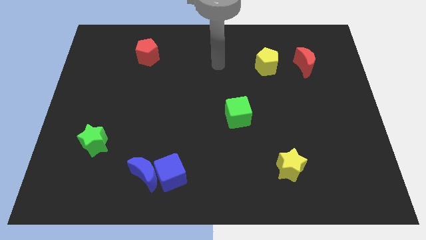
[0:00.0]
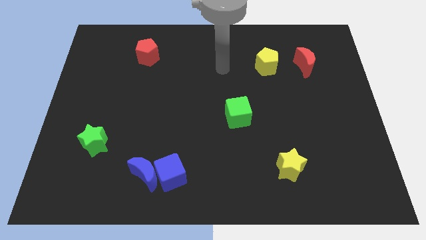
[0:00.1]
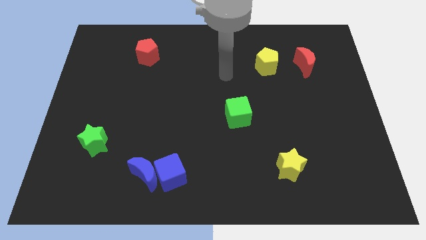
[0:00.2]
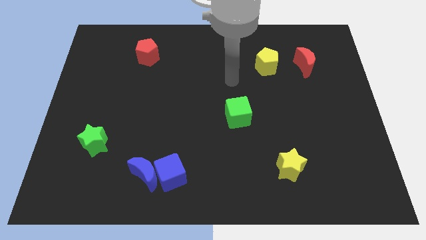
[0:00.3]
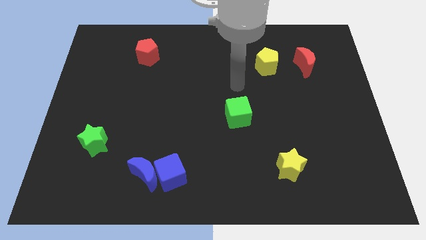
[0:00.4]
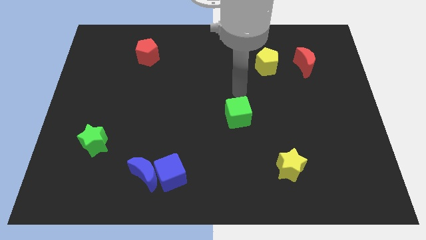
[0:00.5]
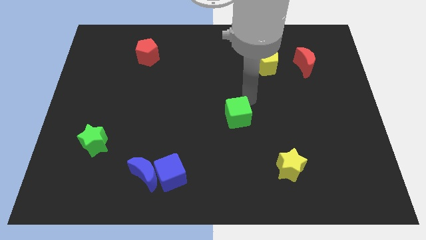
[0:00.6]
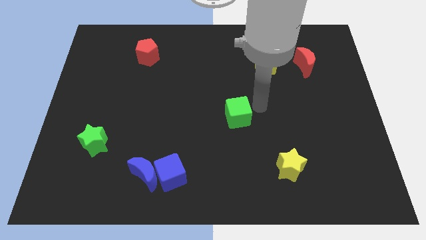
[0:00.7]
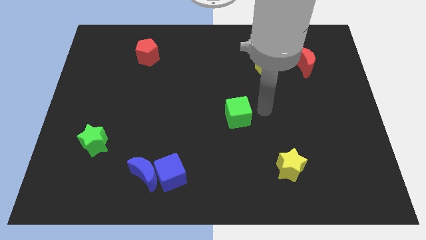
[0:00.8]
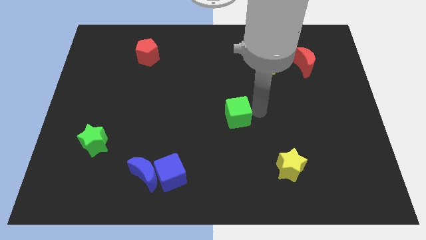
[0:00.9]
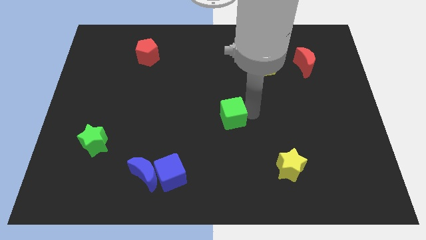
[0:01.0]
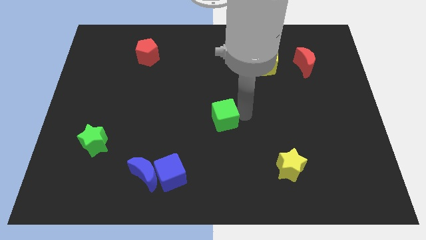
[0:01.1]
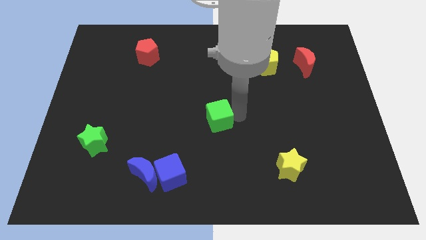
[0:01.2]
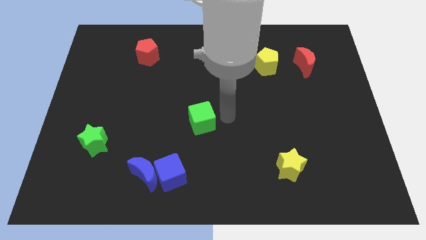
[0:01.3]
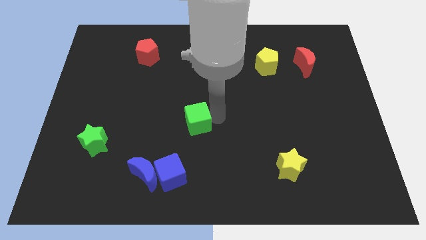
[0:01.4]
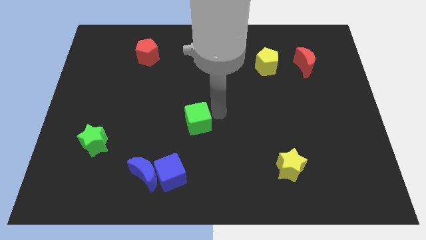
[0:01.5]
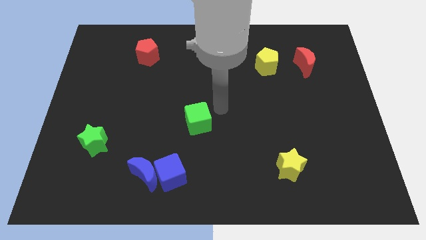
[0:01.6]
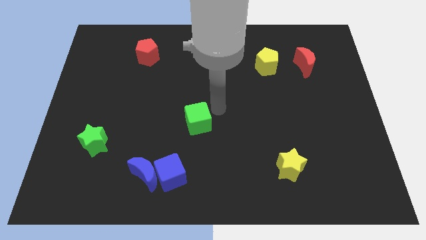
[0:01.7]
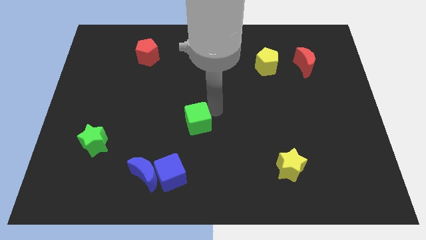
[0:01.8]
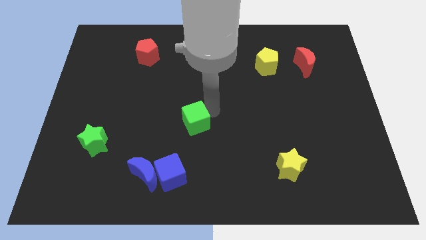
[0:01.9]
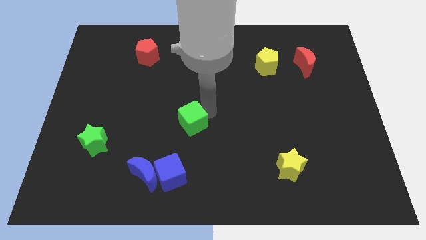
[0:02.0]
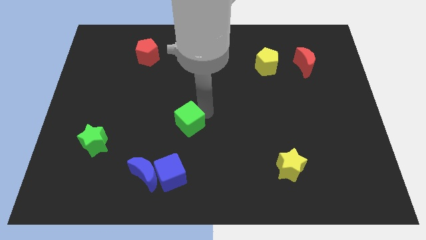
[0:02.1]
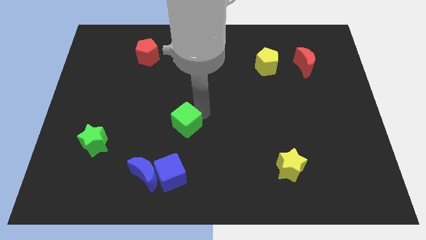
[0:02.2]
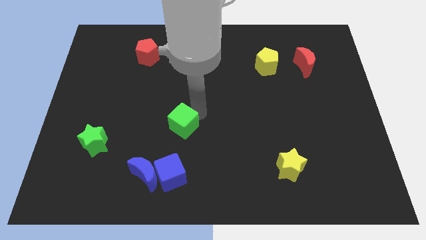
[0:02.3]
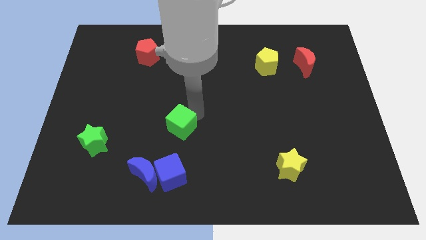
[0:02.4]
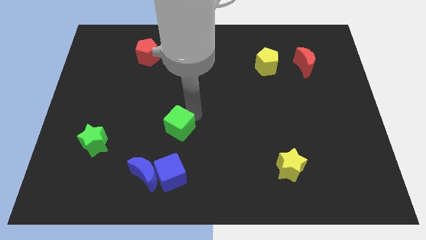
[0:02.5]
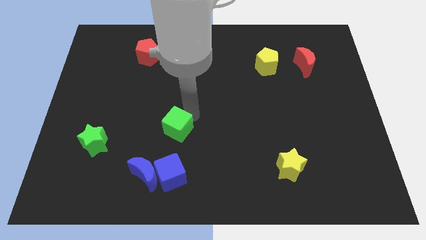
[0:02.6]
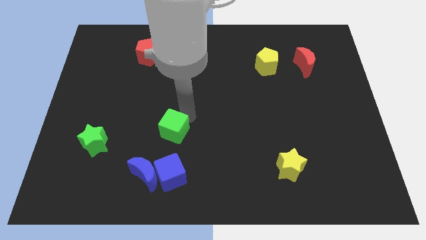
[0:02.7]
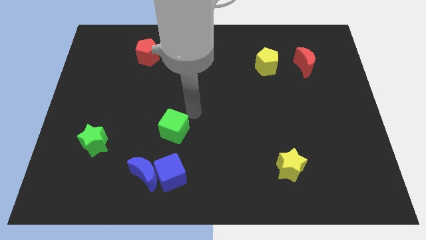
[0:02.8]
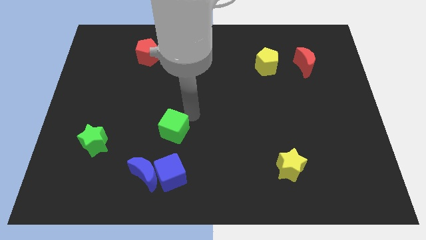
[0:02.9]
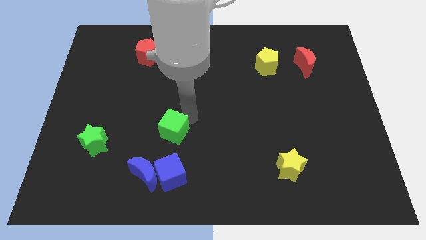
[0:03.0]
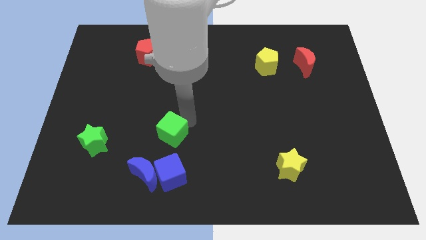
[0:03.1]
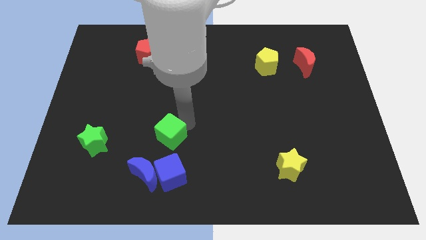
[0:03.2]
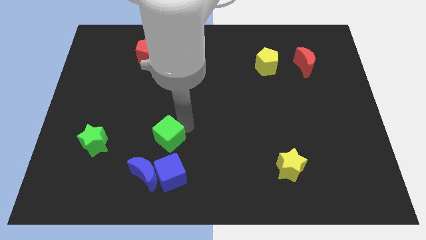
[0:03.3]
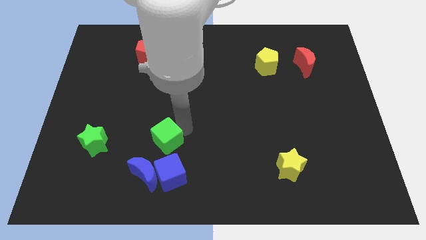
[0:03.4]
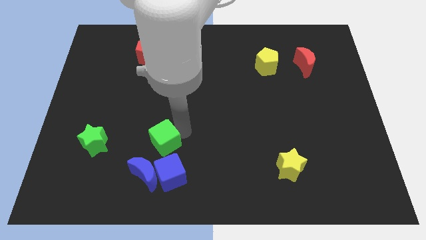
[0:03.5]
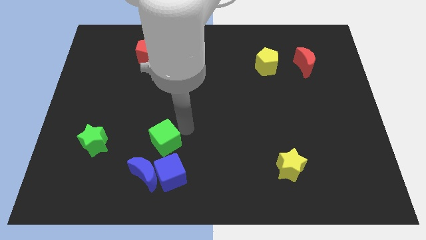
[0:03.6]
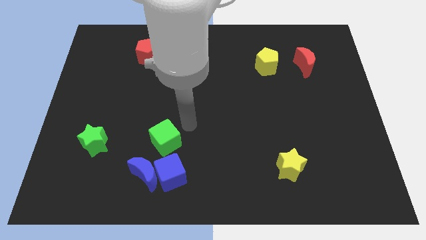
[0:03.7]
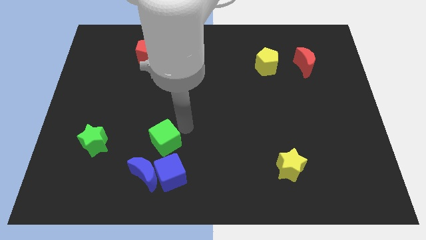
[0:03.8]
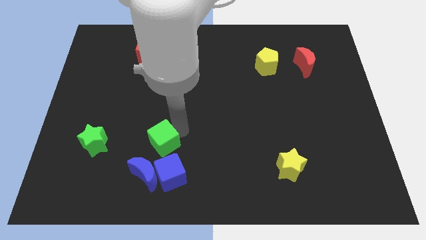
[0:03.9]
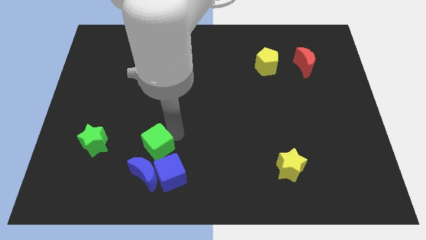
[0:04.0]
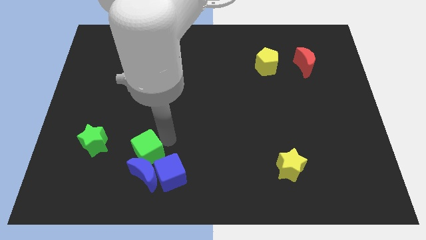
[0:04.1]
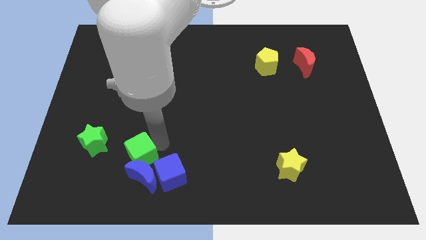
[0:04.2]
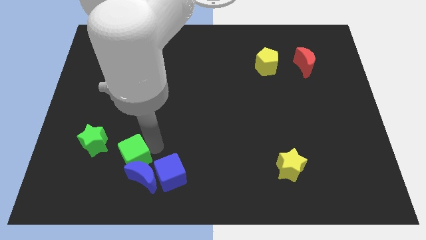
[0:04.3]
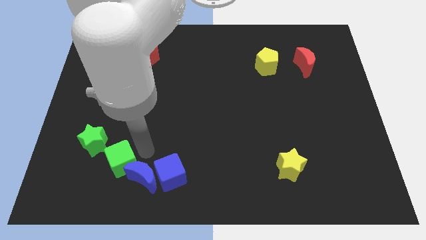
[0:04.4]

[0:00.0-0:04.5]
put the green cube left of the blue moon

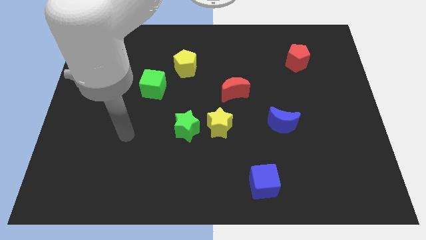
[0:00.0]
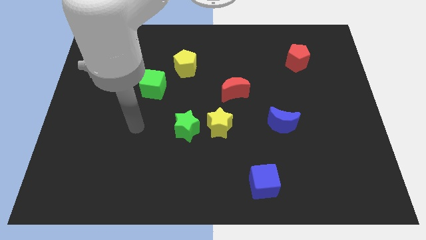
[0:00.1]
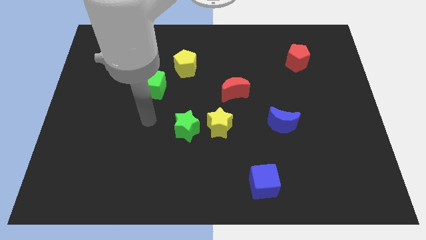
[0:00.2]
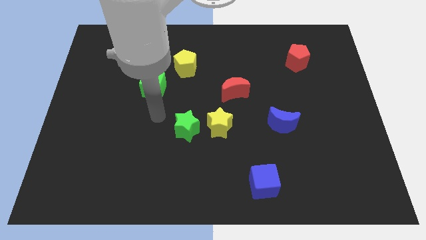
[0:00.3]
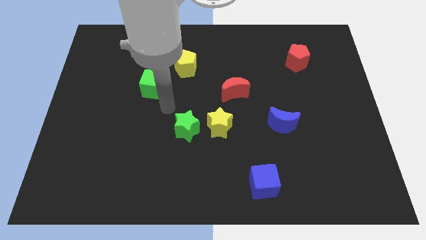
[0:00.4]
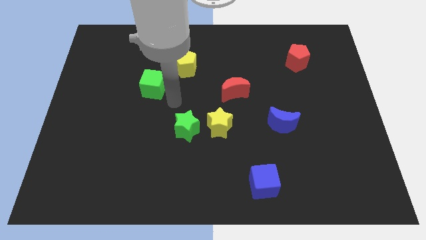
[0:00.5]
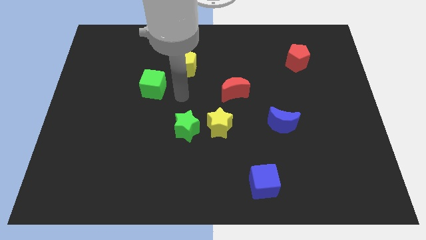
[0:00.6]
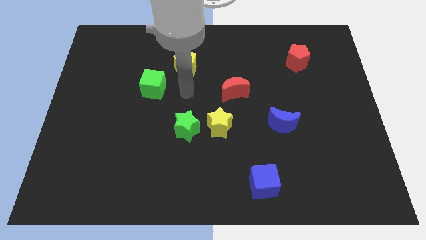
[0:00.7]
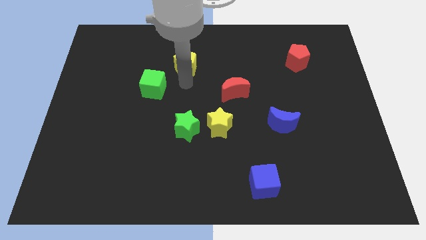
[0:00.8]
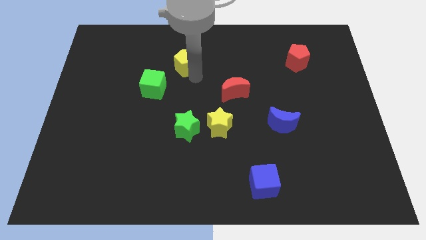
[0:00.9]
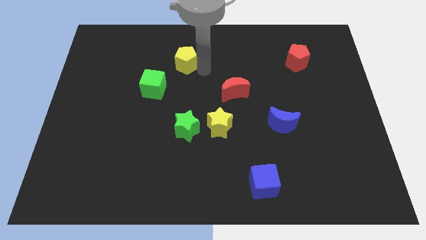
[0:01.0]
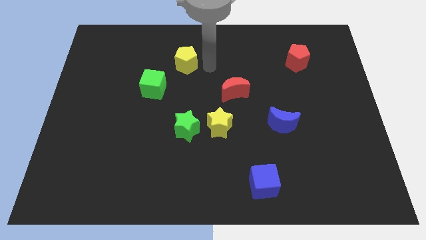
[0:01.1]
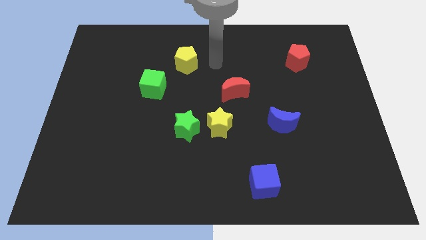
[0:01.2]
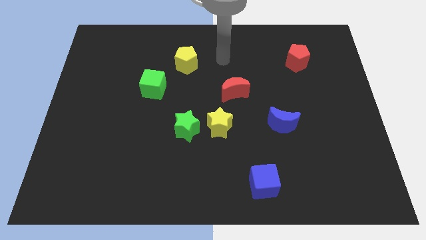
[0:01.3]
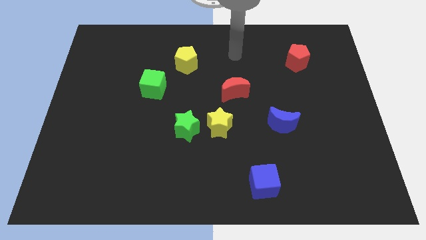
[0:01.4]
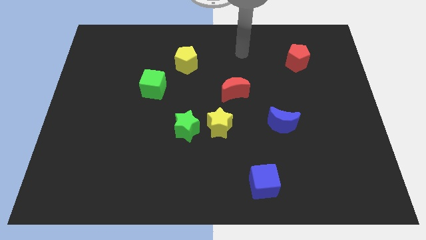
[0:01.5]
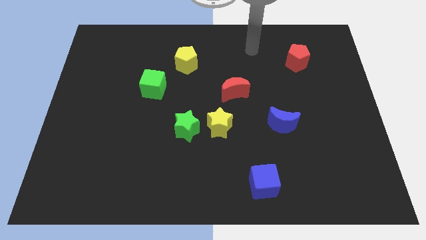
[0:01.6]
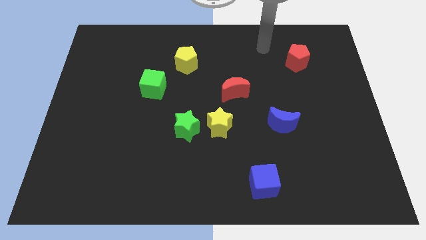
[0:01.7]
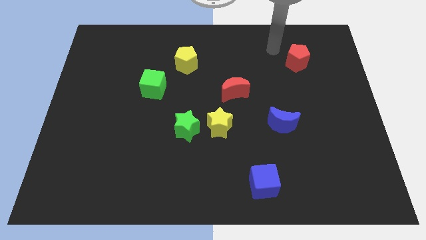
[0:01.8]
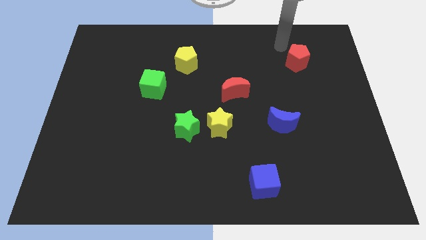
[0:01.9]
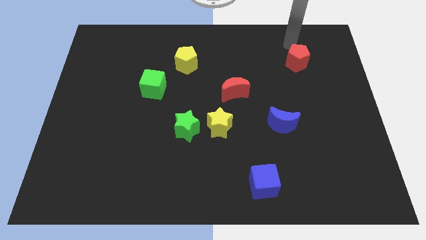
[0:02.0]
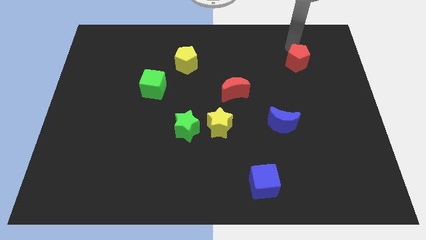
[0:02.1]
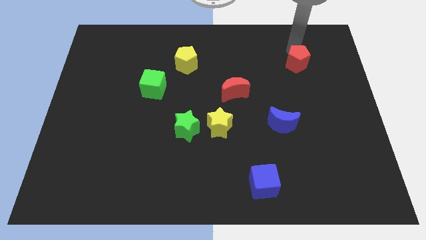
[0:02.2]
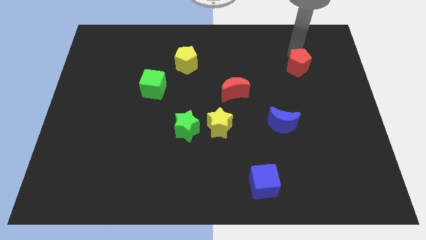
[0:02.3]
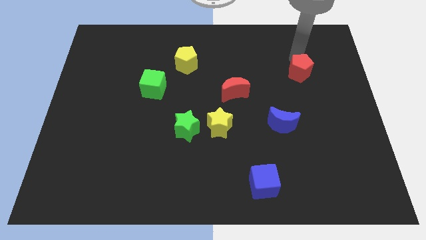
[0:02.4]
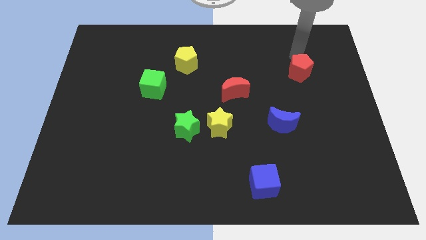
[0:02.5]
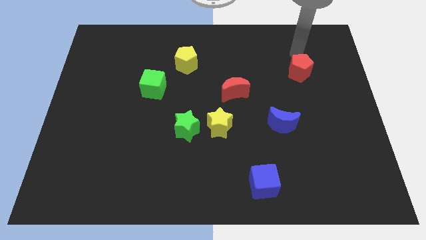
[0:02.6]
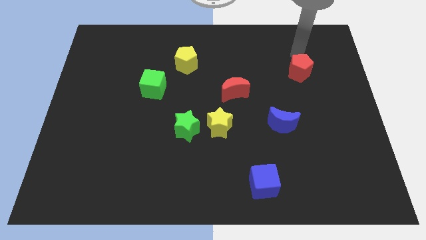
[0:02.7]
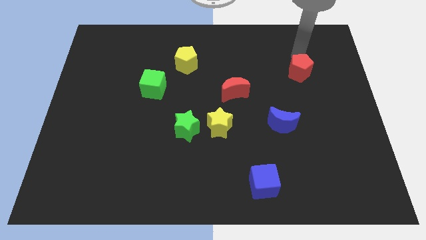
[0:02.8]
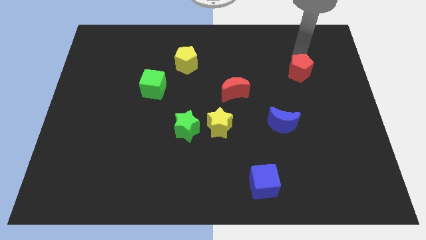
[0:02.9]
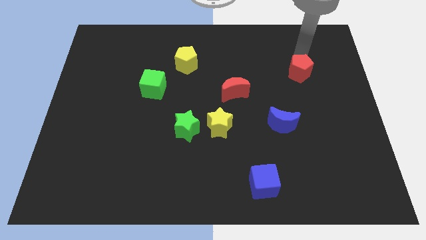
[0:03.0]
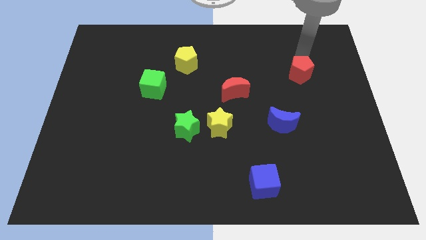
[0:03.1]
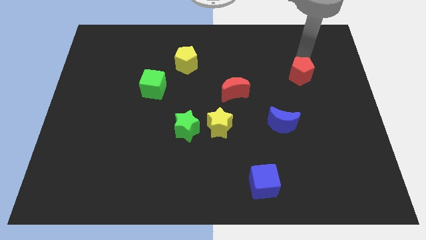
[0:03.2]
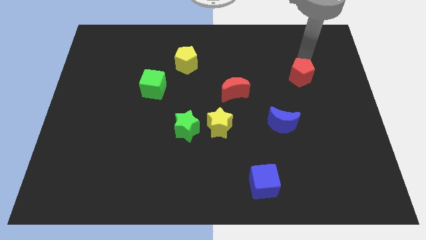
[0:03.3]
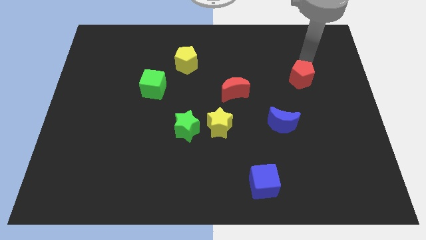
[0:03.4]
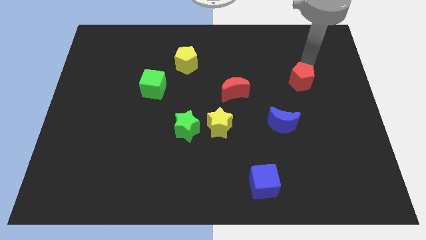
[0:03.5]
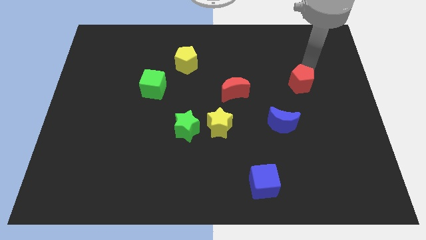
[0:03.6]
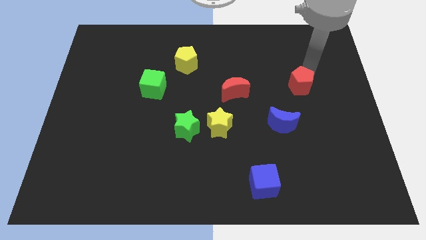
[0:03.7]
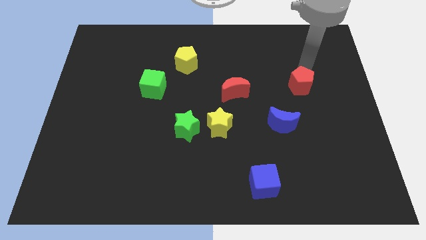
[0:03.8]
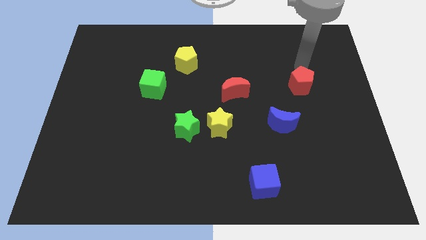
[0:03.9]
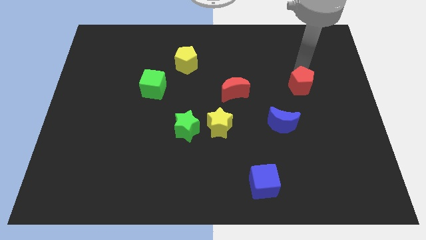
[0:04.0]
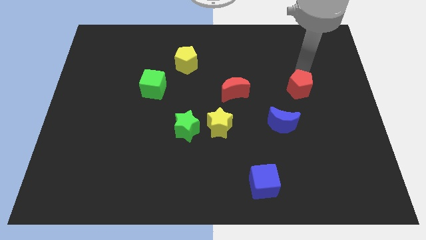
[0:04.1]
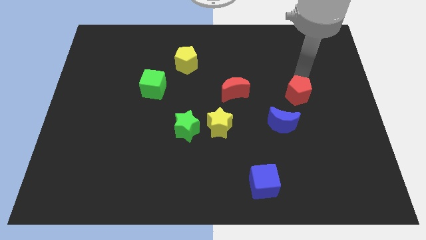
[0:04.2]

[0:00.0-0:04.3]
put the red pentagon diagonally up and to the right of the blue moon
